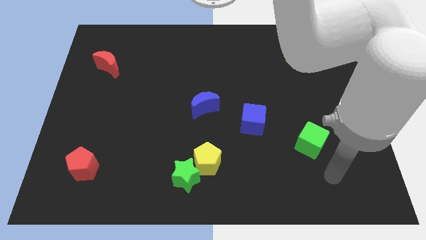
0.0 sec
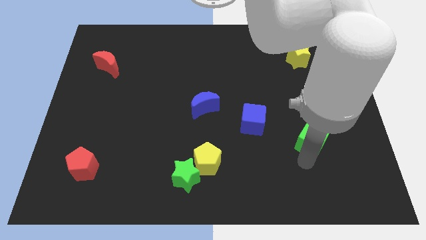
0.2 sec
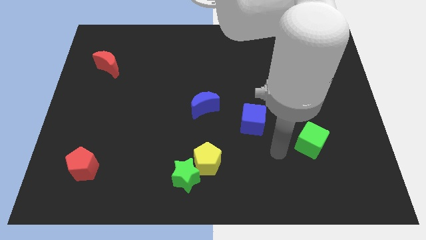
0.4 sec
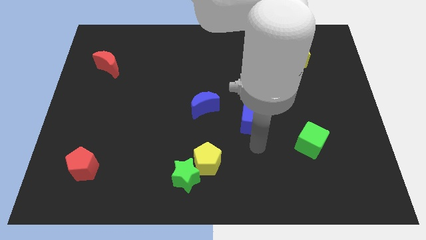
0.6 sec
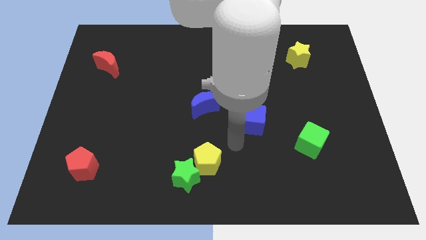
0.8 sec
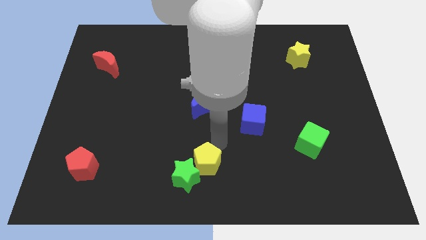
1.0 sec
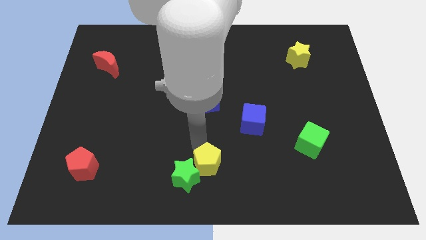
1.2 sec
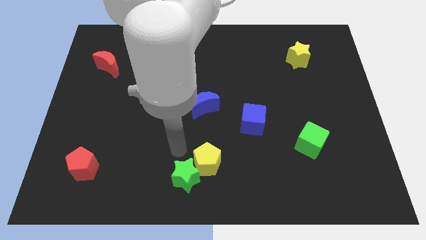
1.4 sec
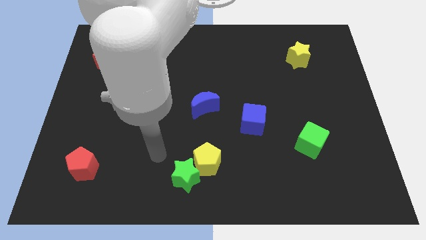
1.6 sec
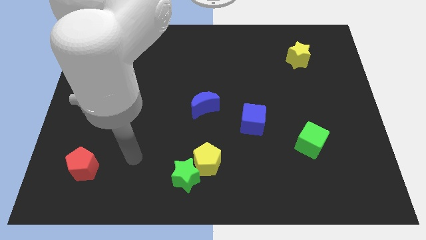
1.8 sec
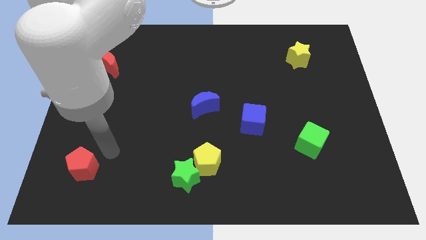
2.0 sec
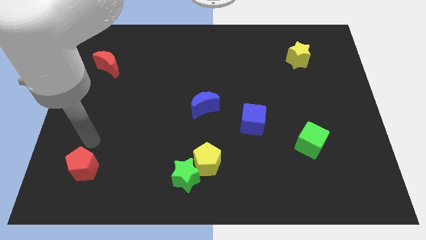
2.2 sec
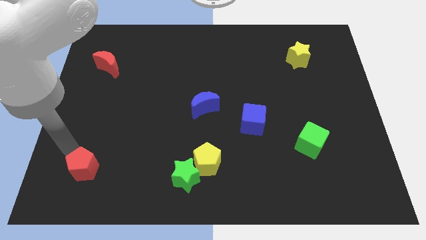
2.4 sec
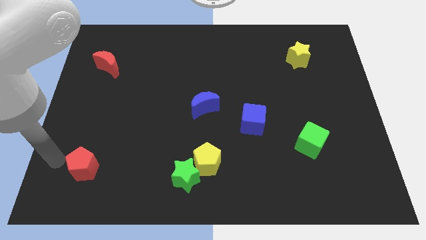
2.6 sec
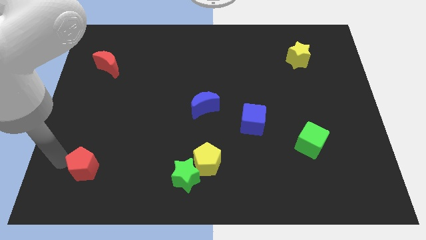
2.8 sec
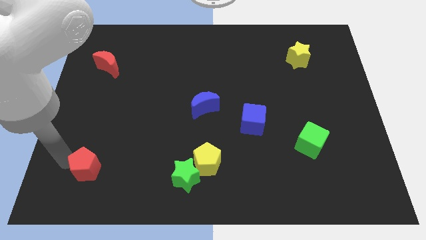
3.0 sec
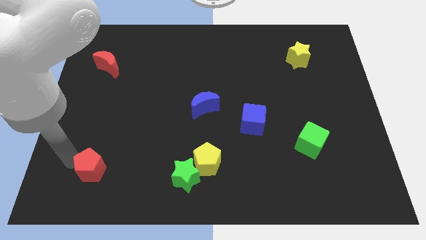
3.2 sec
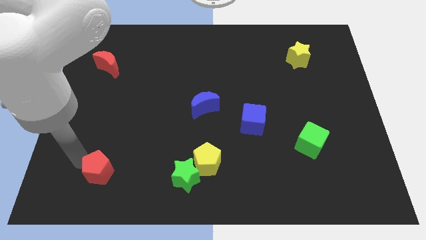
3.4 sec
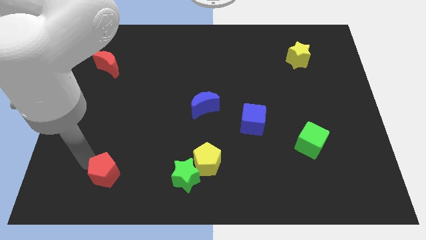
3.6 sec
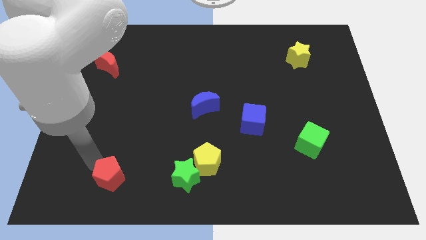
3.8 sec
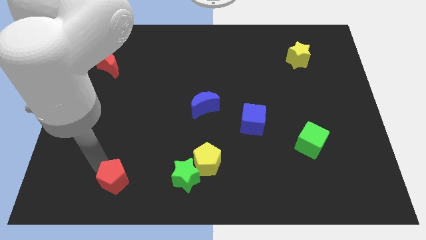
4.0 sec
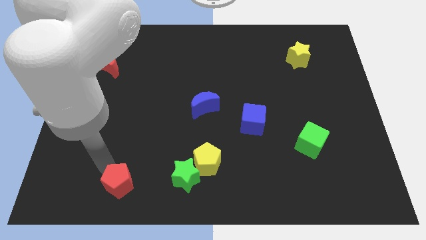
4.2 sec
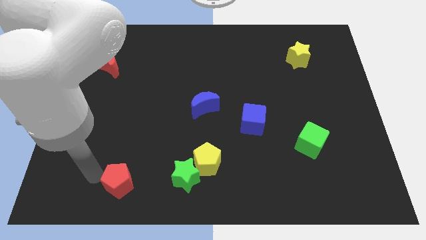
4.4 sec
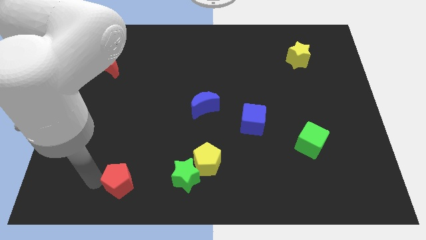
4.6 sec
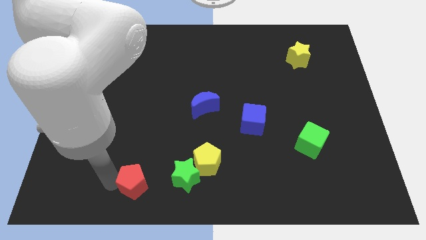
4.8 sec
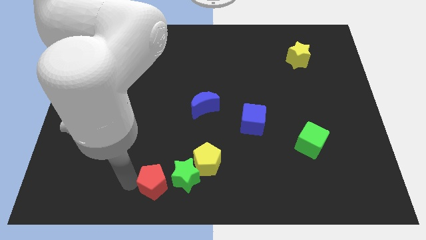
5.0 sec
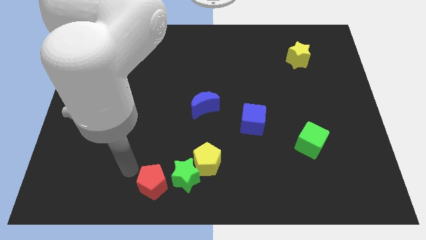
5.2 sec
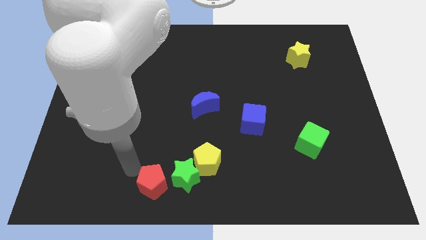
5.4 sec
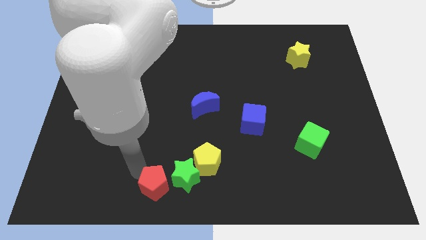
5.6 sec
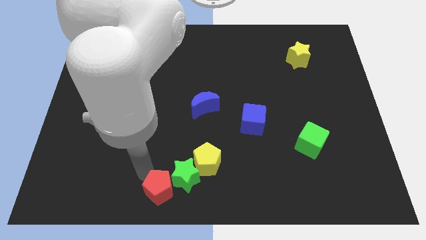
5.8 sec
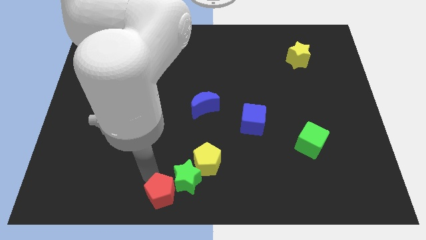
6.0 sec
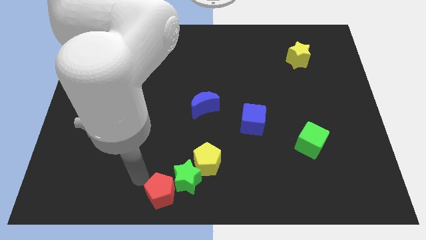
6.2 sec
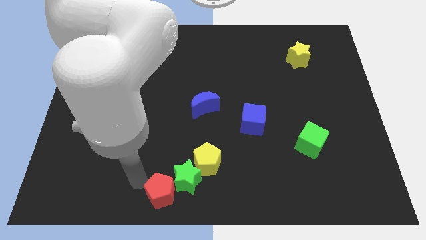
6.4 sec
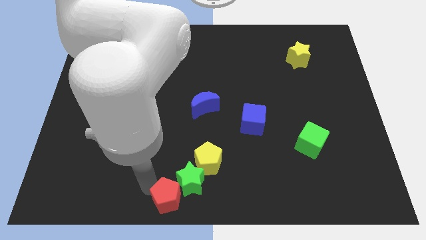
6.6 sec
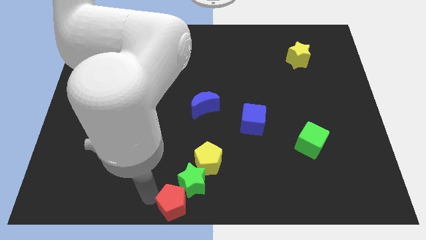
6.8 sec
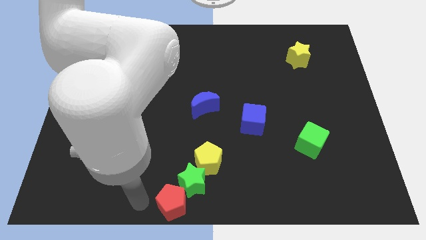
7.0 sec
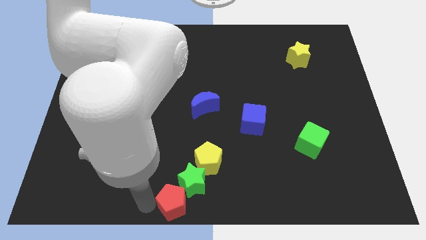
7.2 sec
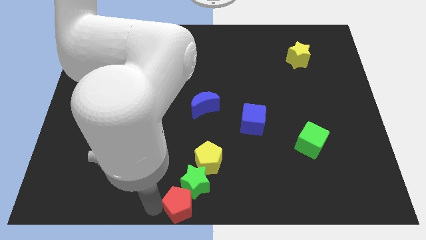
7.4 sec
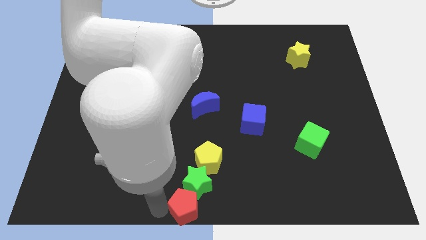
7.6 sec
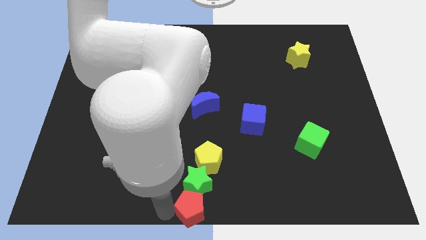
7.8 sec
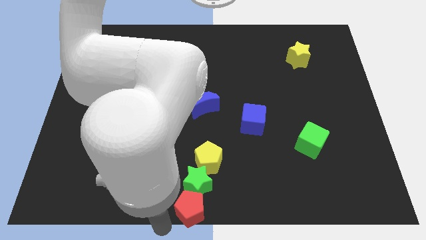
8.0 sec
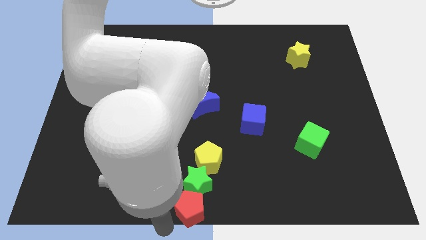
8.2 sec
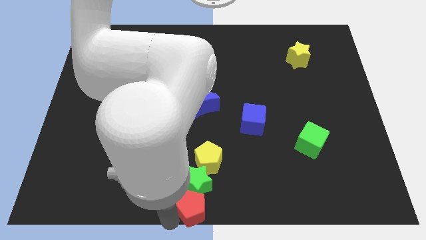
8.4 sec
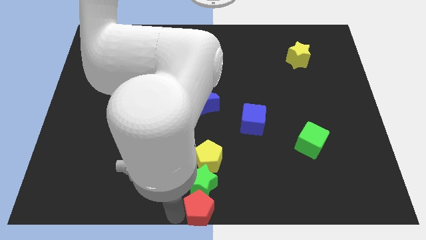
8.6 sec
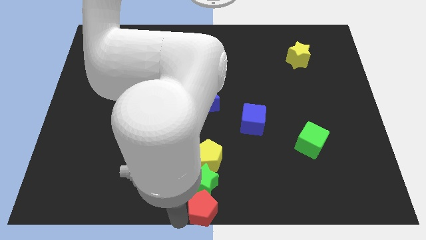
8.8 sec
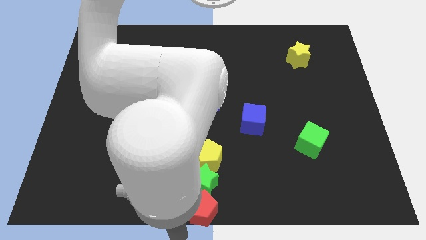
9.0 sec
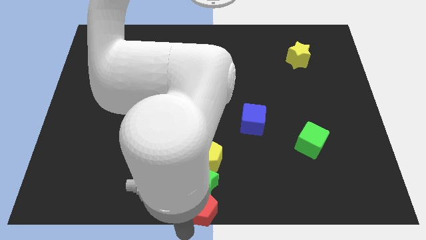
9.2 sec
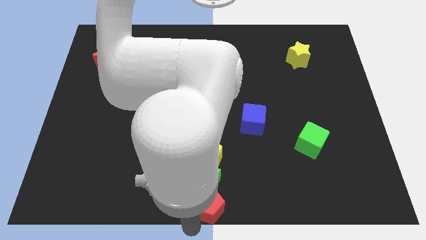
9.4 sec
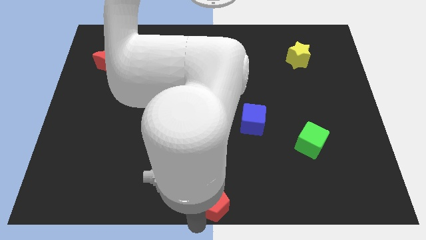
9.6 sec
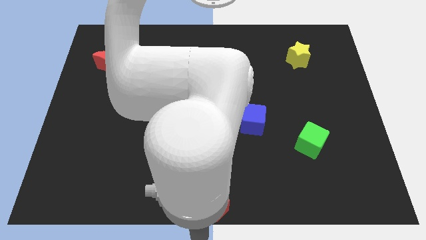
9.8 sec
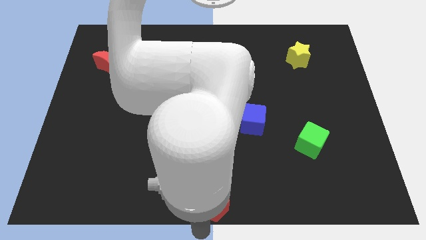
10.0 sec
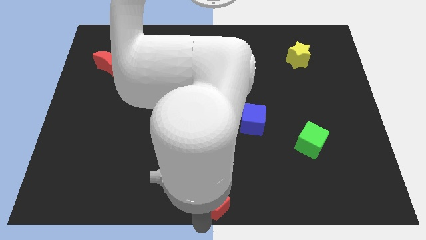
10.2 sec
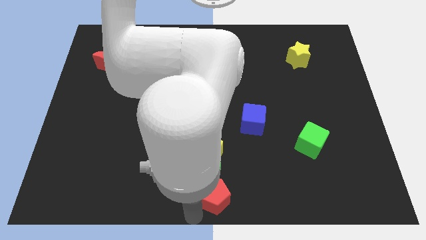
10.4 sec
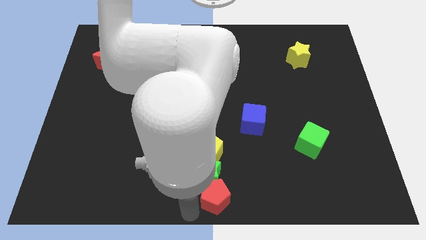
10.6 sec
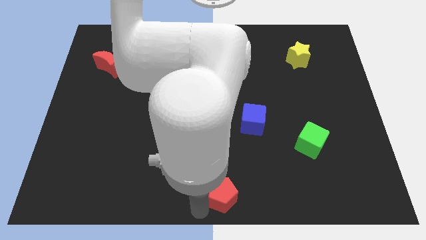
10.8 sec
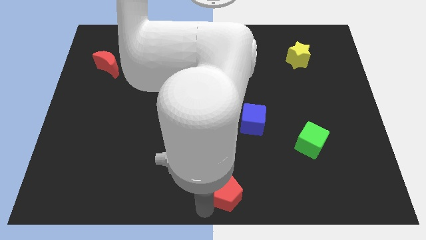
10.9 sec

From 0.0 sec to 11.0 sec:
push the red pentagon just right of the green star

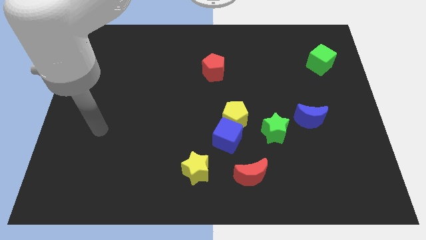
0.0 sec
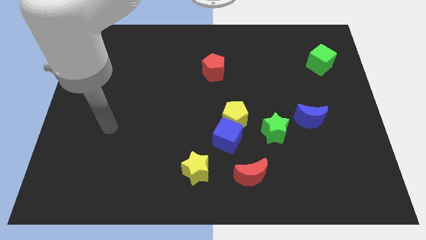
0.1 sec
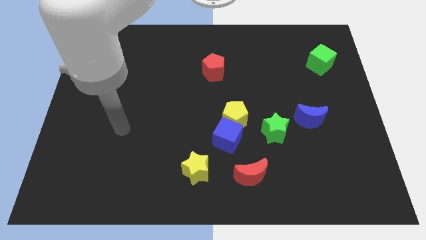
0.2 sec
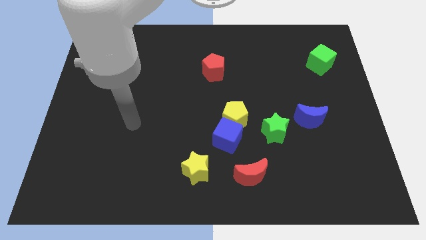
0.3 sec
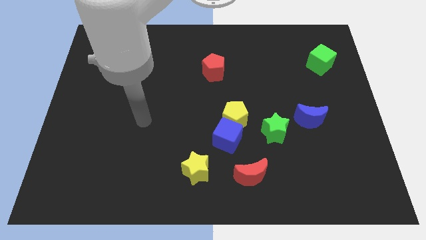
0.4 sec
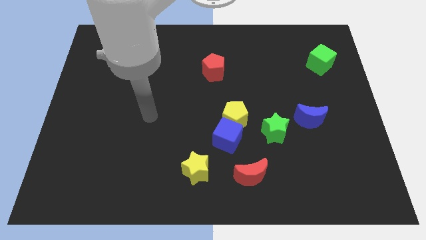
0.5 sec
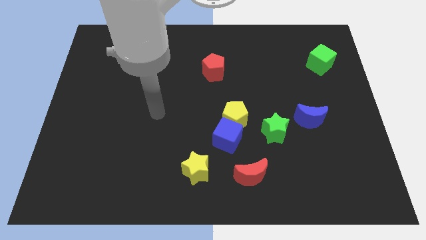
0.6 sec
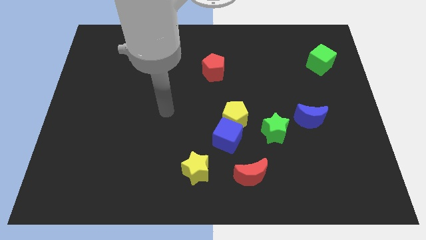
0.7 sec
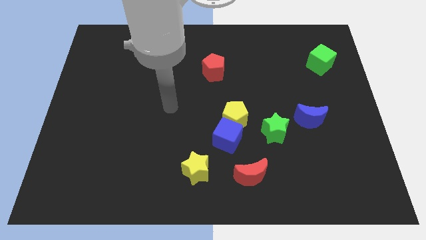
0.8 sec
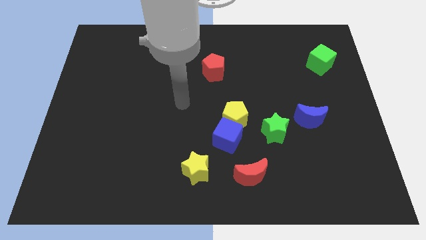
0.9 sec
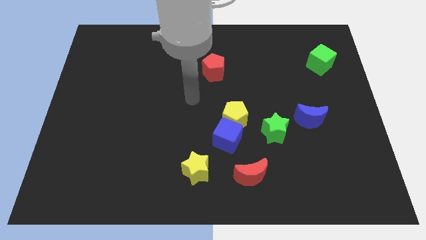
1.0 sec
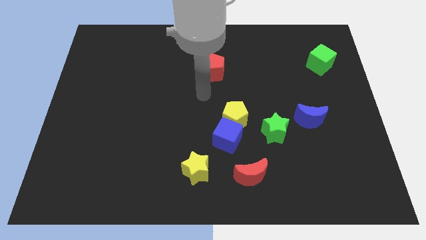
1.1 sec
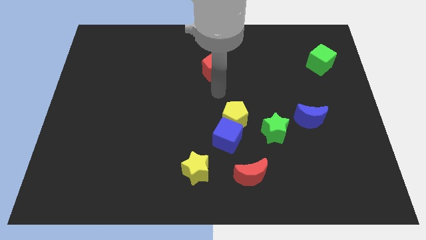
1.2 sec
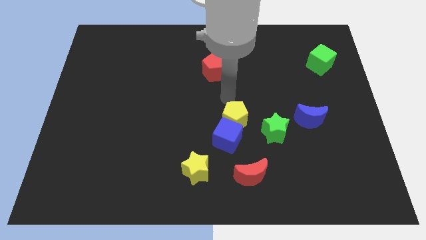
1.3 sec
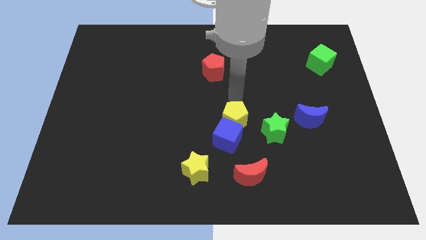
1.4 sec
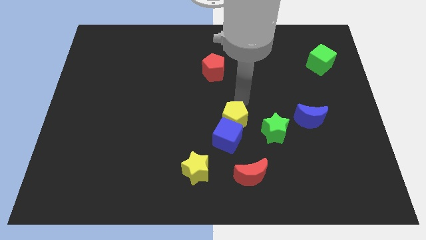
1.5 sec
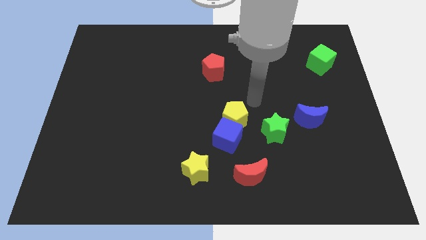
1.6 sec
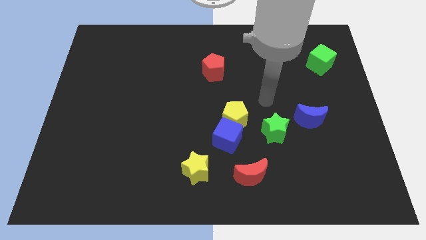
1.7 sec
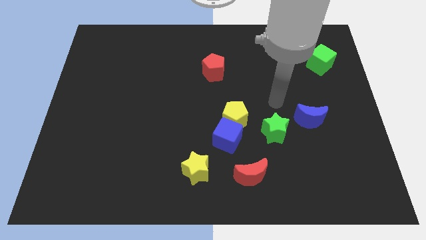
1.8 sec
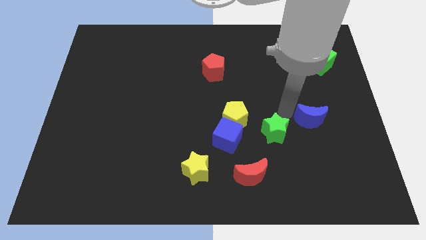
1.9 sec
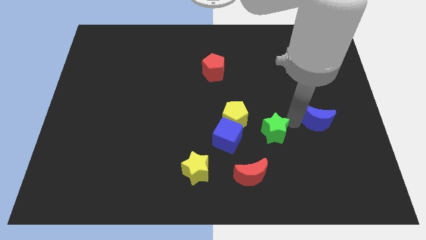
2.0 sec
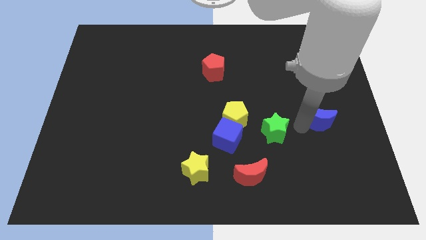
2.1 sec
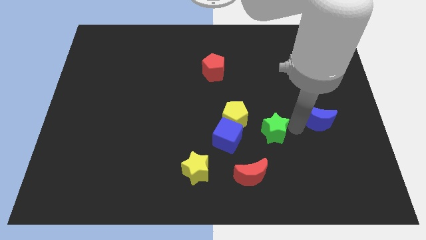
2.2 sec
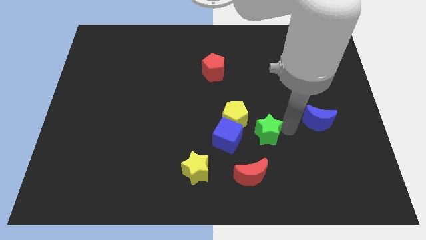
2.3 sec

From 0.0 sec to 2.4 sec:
move the green star to the top of the red moon

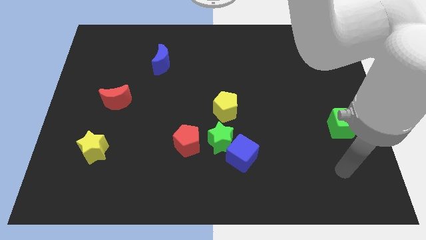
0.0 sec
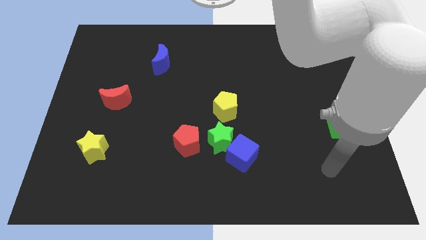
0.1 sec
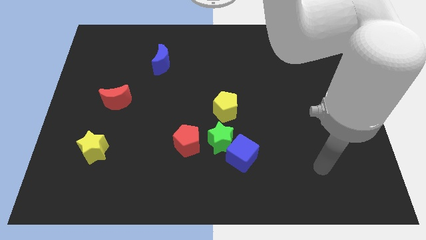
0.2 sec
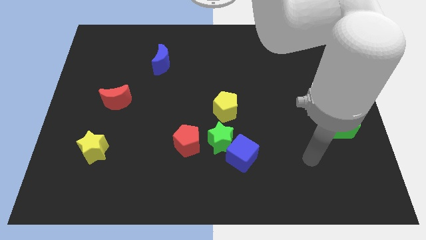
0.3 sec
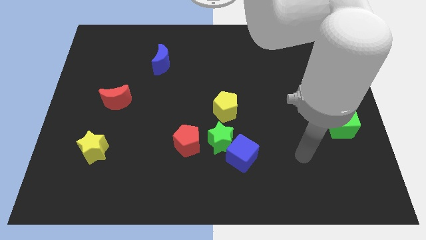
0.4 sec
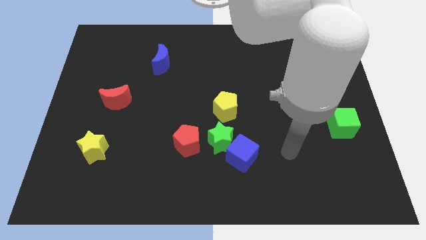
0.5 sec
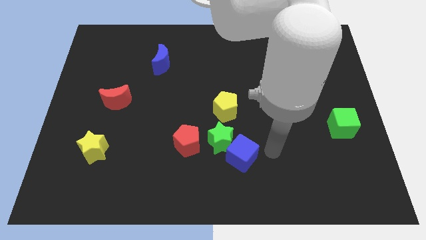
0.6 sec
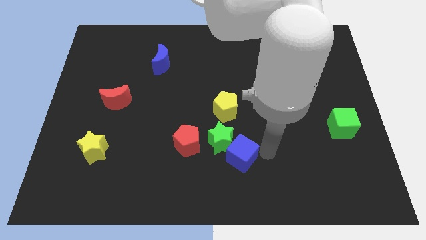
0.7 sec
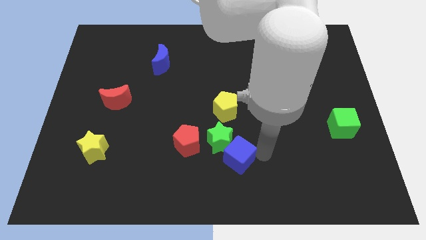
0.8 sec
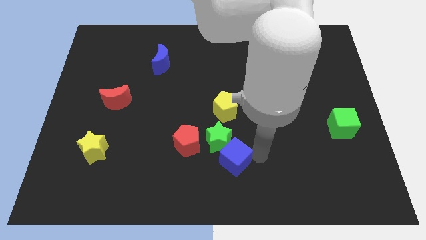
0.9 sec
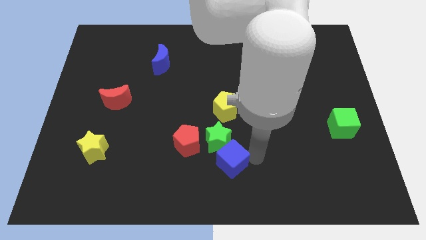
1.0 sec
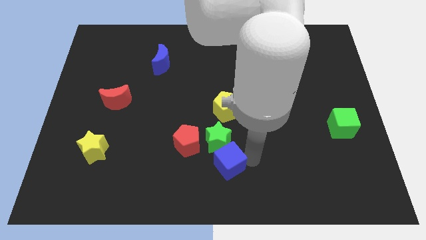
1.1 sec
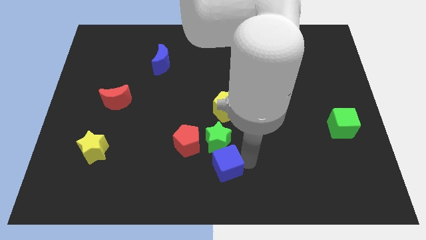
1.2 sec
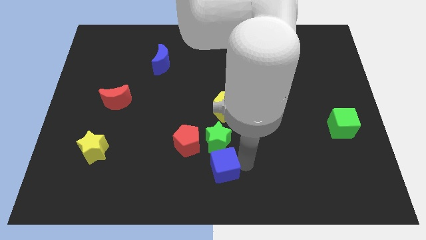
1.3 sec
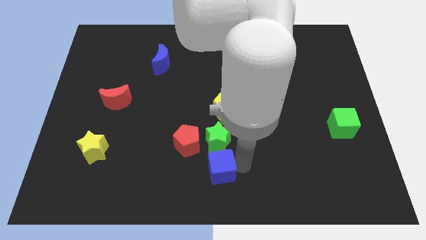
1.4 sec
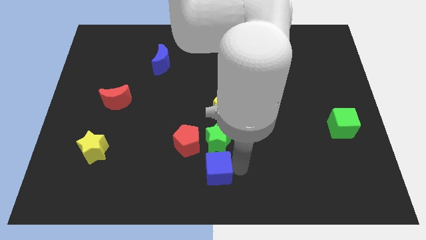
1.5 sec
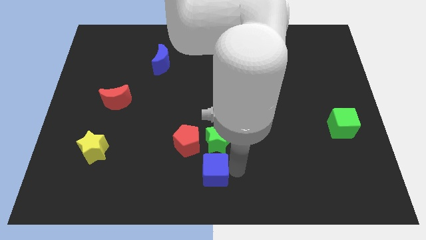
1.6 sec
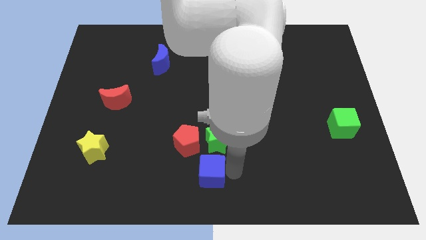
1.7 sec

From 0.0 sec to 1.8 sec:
push the blue cube diagonally down and to the left of the green star
